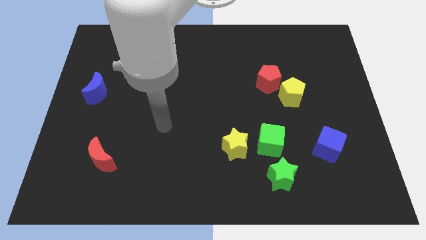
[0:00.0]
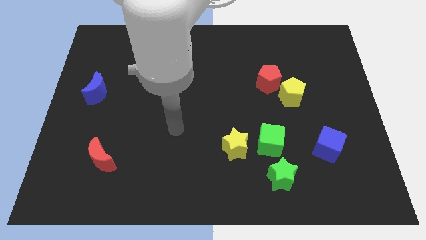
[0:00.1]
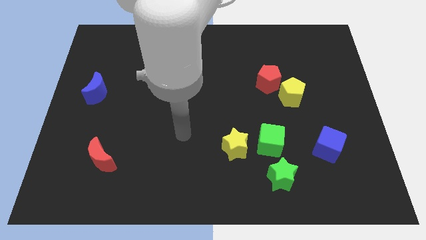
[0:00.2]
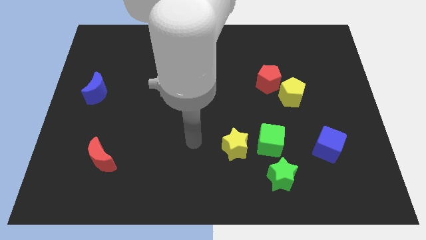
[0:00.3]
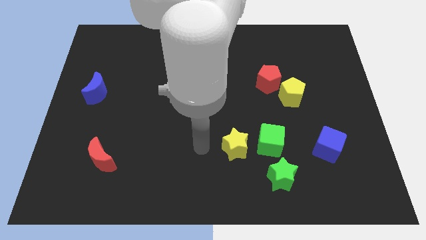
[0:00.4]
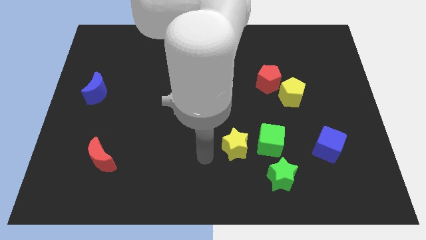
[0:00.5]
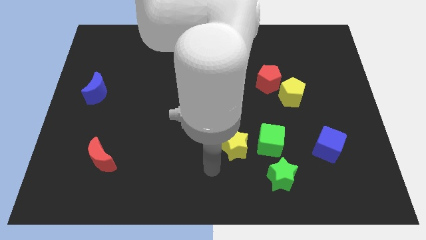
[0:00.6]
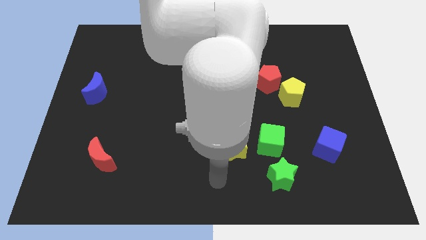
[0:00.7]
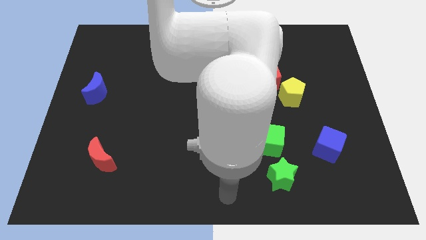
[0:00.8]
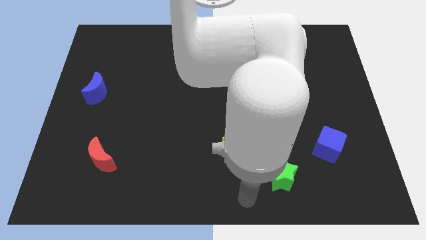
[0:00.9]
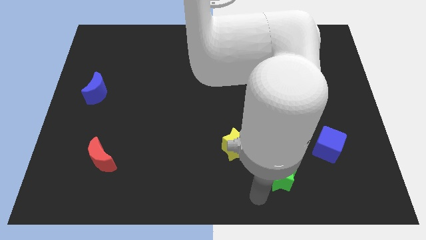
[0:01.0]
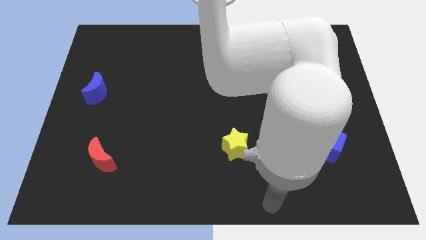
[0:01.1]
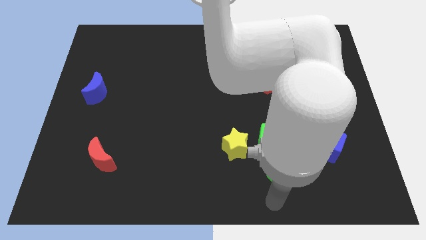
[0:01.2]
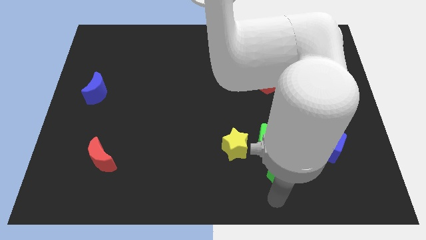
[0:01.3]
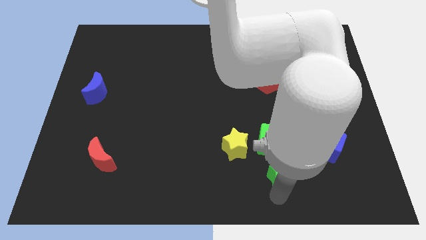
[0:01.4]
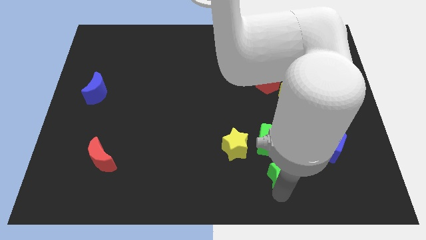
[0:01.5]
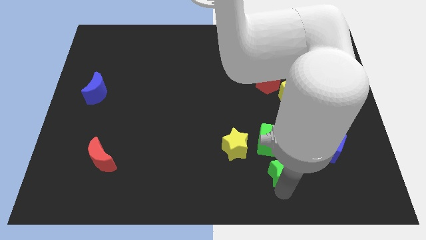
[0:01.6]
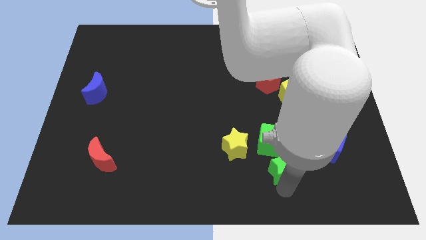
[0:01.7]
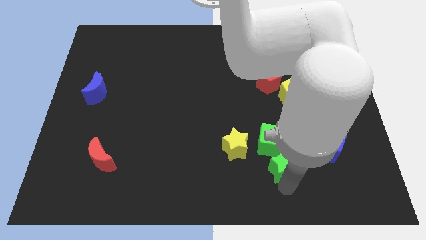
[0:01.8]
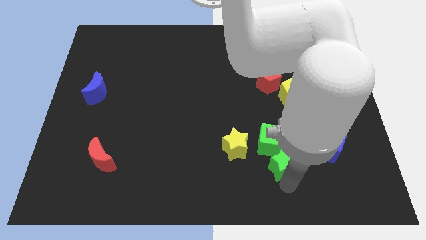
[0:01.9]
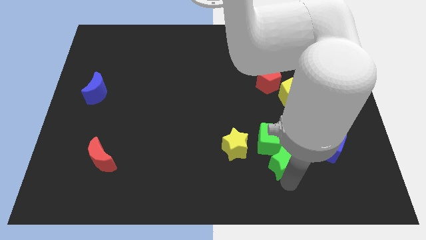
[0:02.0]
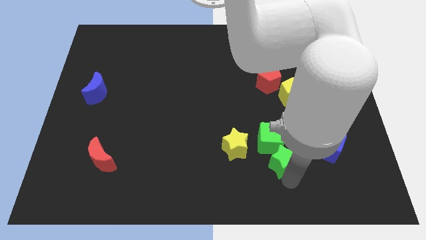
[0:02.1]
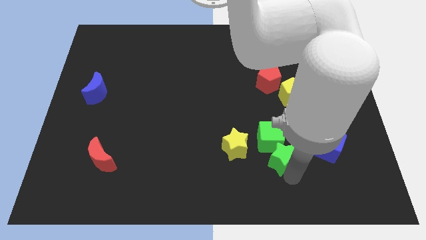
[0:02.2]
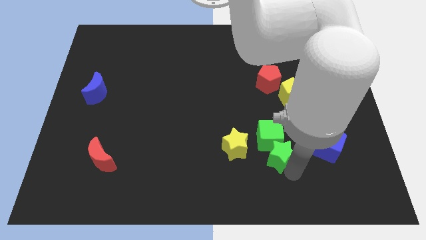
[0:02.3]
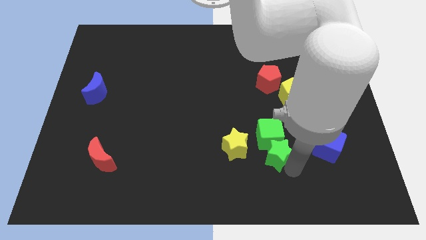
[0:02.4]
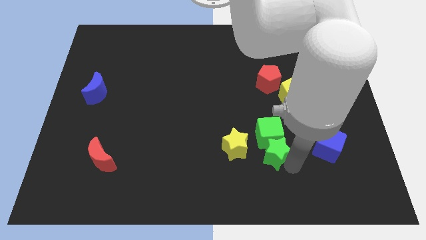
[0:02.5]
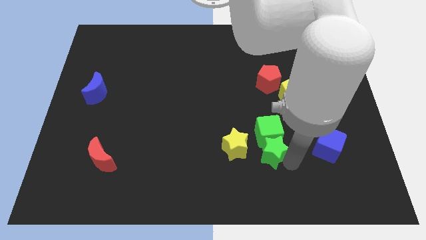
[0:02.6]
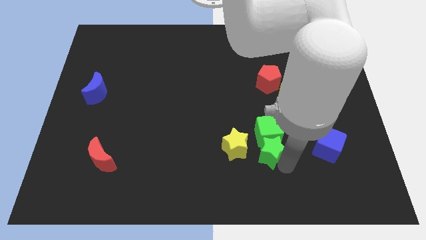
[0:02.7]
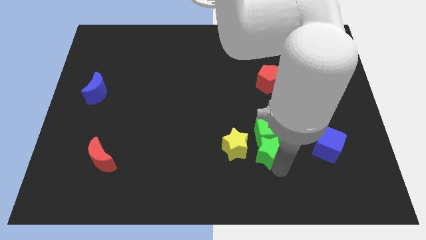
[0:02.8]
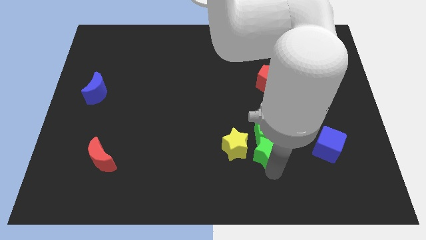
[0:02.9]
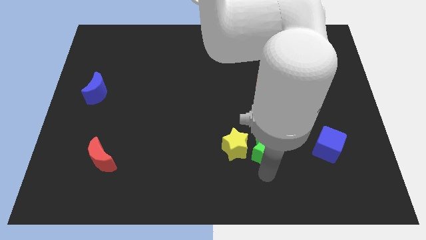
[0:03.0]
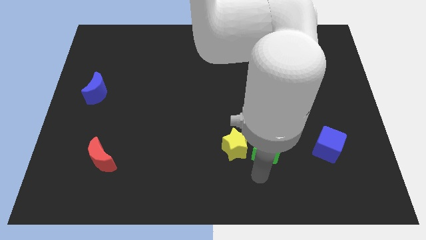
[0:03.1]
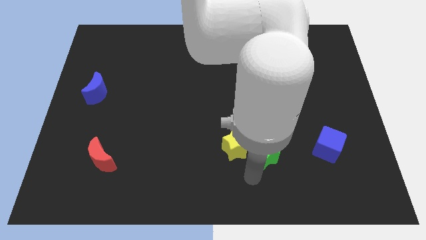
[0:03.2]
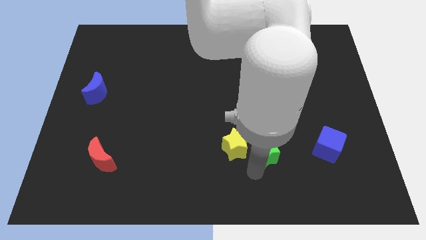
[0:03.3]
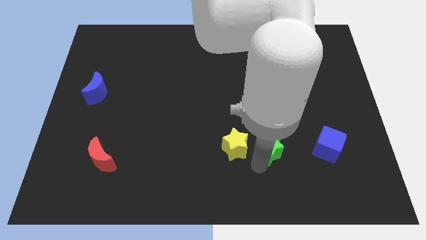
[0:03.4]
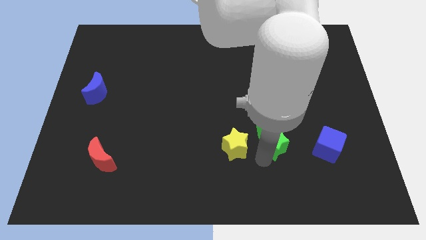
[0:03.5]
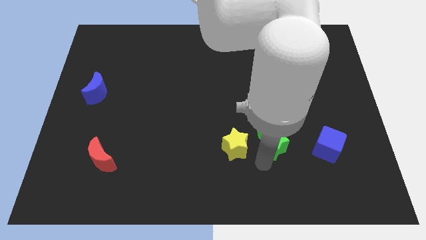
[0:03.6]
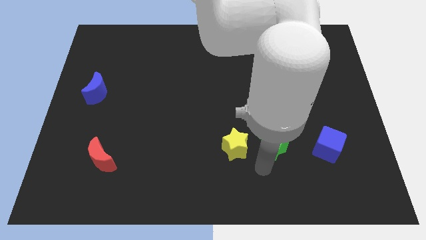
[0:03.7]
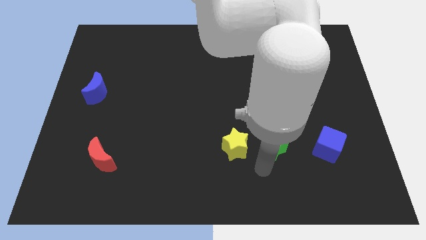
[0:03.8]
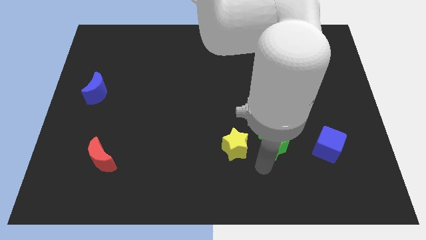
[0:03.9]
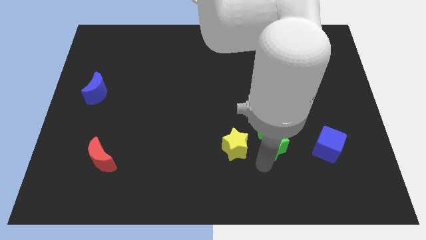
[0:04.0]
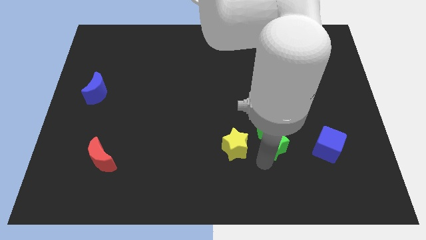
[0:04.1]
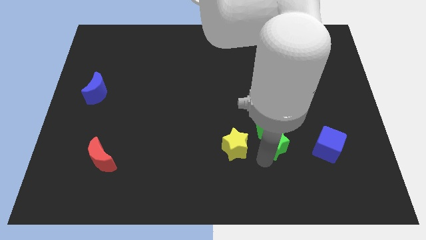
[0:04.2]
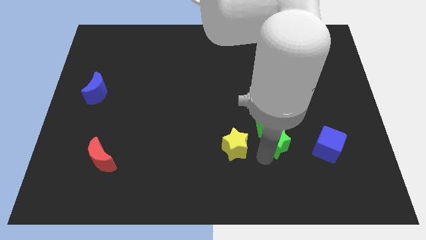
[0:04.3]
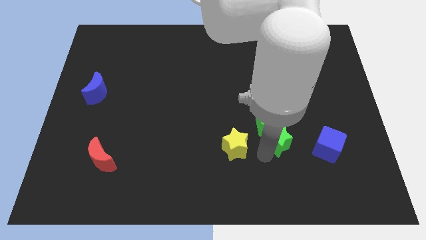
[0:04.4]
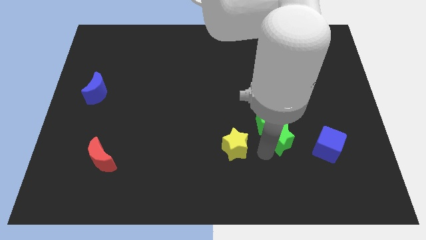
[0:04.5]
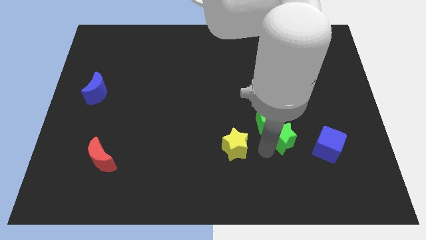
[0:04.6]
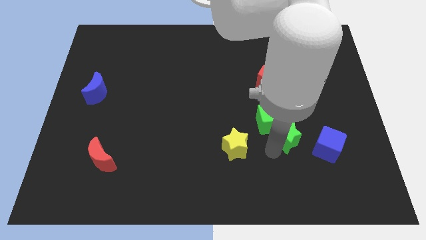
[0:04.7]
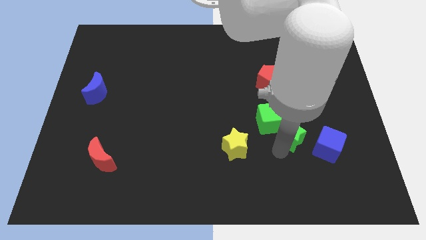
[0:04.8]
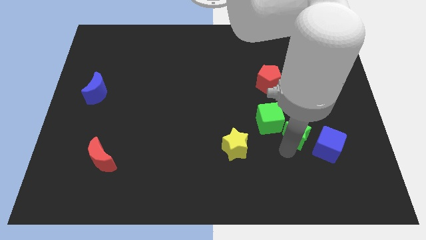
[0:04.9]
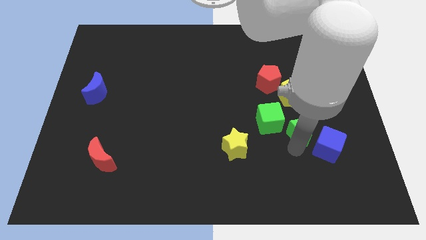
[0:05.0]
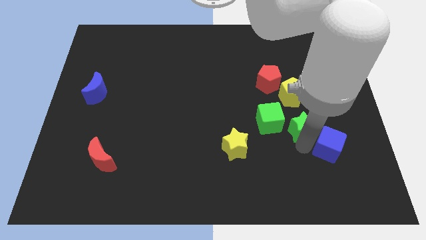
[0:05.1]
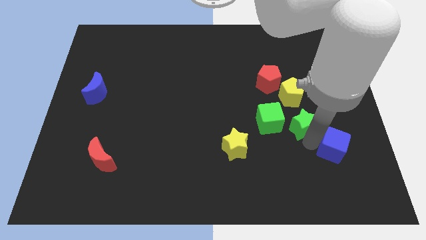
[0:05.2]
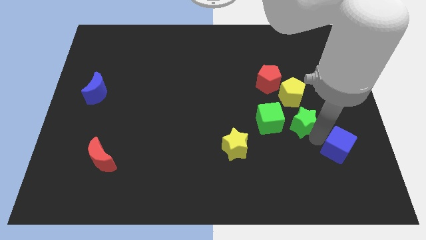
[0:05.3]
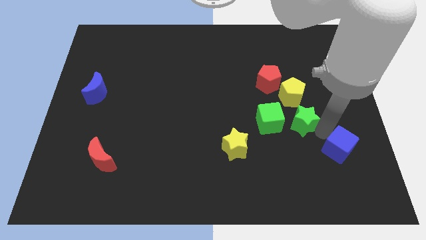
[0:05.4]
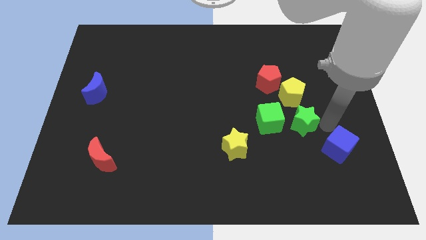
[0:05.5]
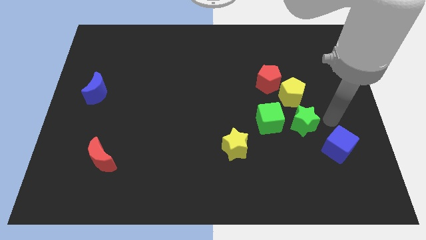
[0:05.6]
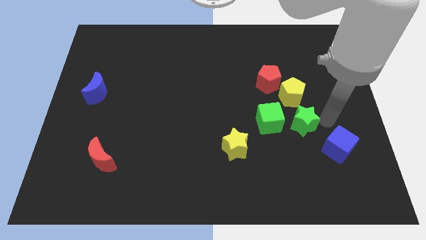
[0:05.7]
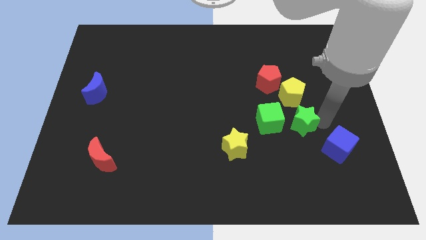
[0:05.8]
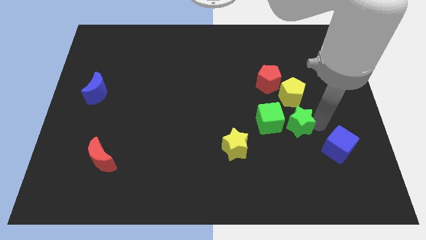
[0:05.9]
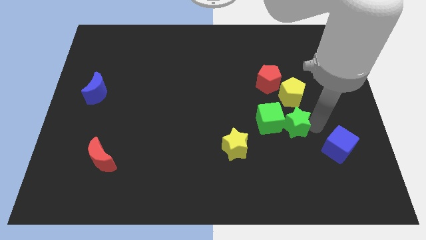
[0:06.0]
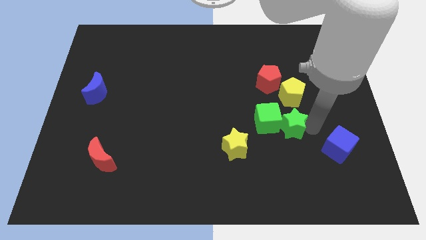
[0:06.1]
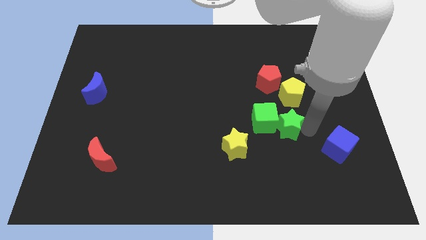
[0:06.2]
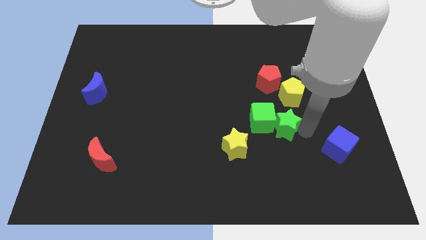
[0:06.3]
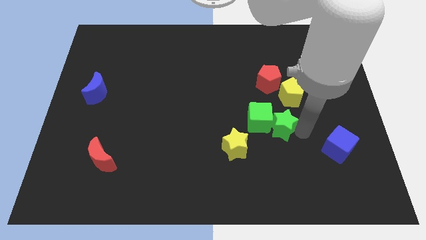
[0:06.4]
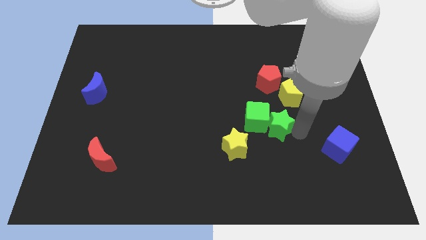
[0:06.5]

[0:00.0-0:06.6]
push the green star diagonally up and to the right of the yellow star

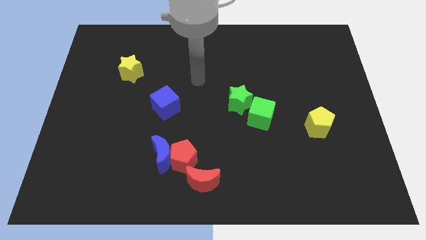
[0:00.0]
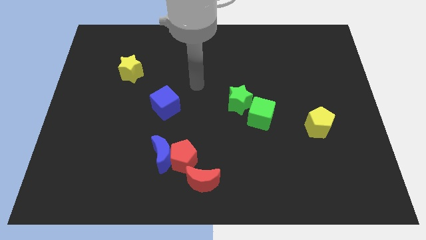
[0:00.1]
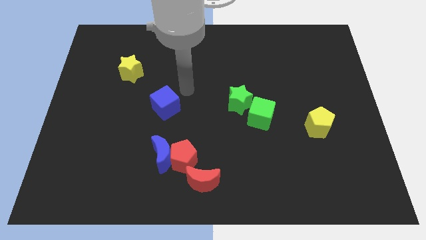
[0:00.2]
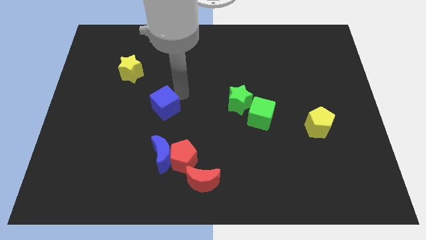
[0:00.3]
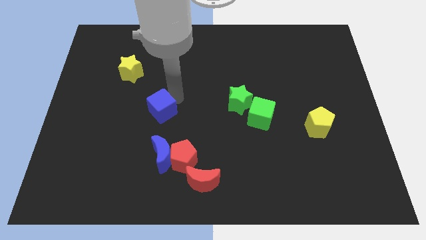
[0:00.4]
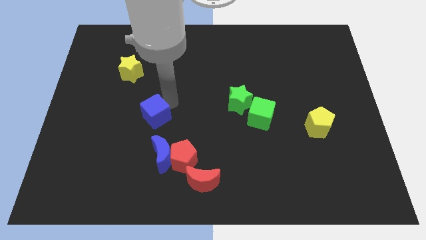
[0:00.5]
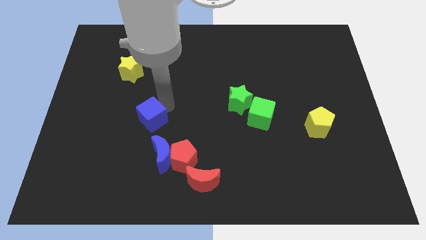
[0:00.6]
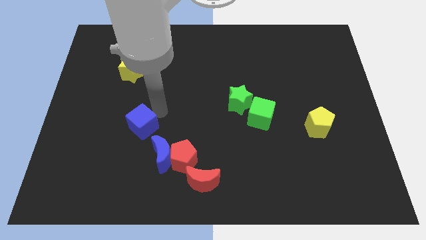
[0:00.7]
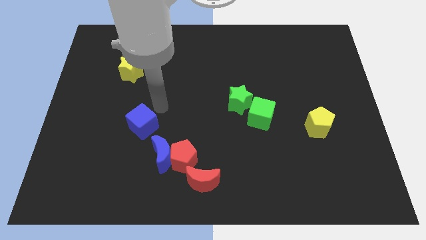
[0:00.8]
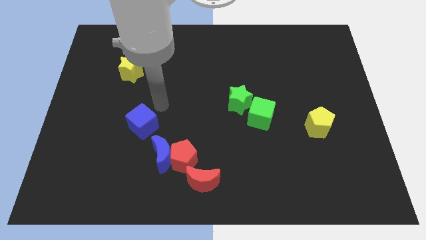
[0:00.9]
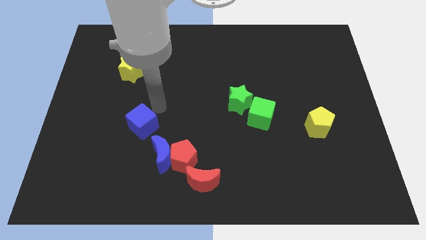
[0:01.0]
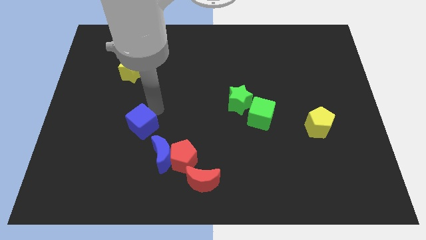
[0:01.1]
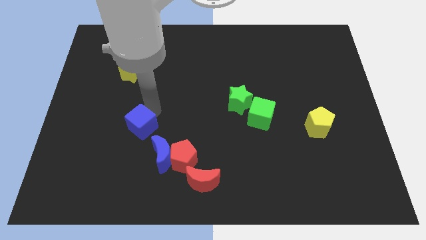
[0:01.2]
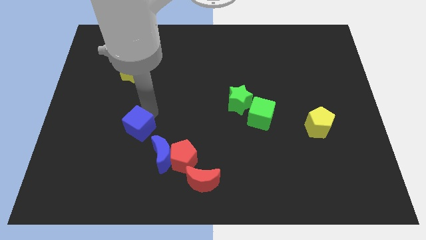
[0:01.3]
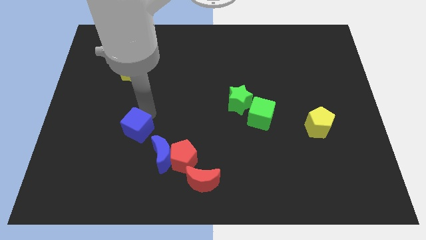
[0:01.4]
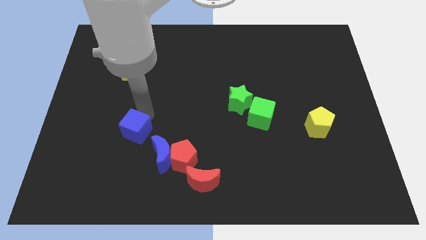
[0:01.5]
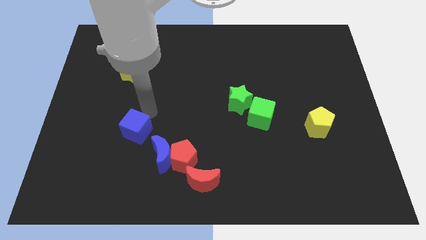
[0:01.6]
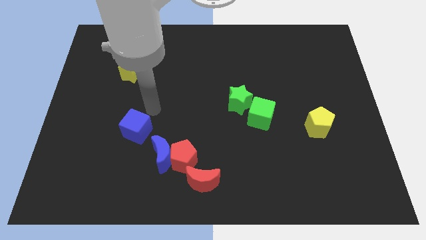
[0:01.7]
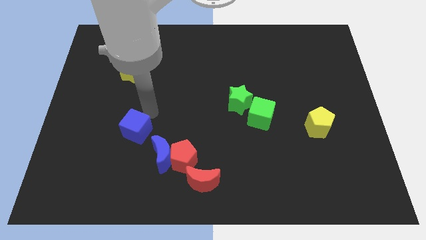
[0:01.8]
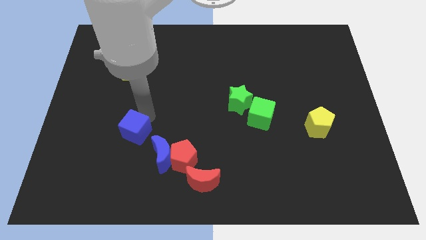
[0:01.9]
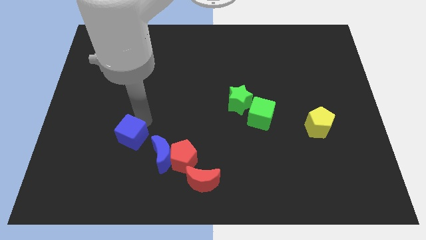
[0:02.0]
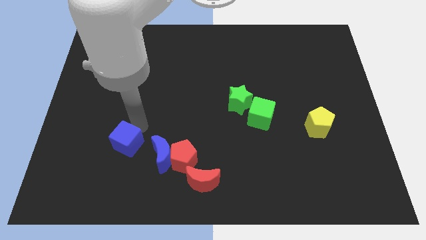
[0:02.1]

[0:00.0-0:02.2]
push the blue cube left of the blue moon
